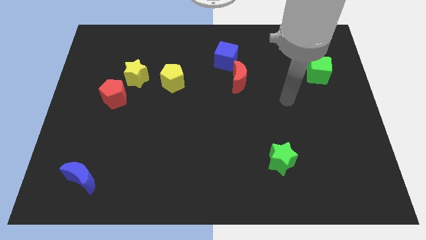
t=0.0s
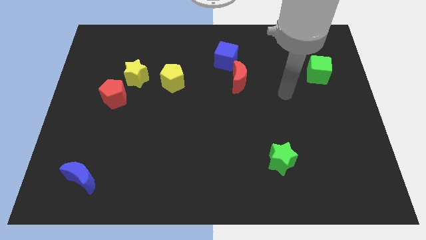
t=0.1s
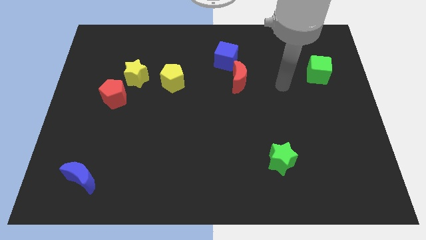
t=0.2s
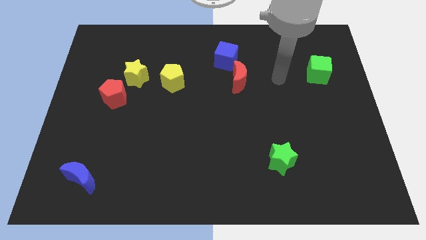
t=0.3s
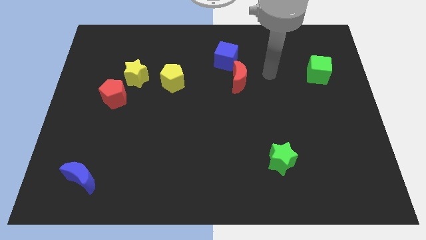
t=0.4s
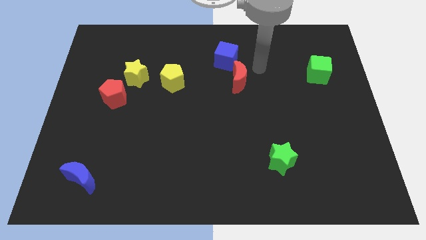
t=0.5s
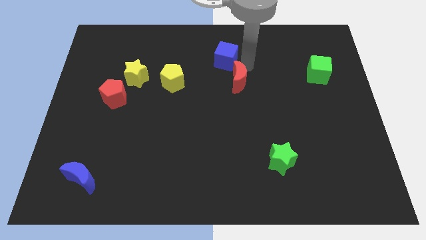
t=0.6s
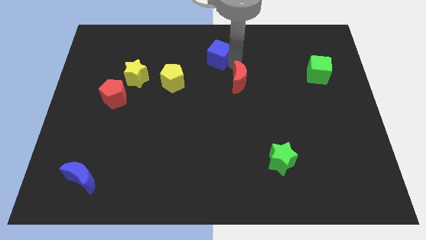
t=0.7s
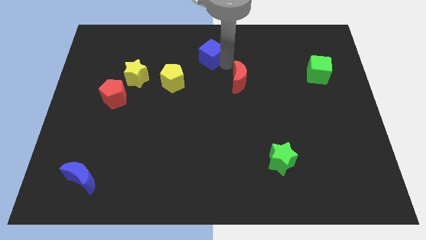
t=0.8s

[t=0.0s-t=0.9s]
separate the red moon from the blue cube

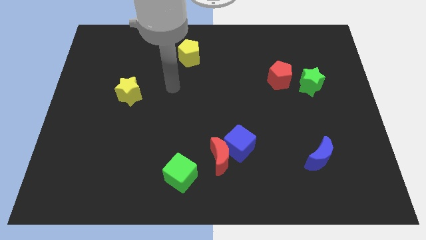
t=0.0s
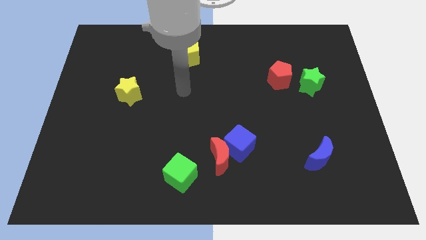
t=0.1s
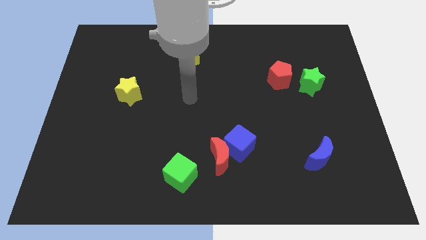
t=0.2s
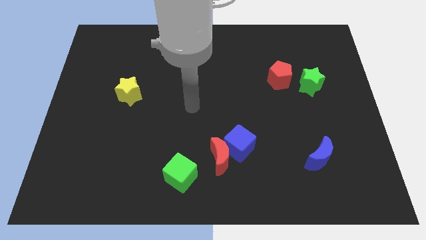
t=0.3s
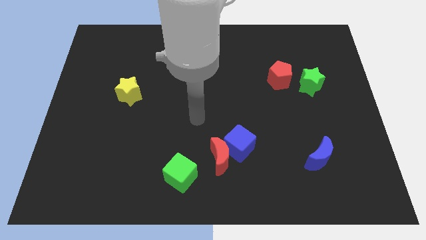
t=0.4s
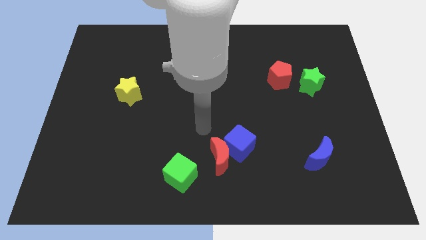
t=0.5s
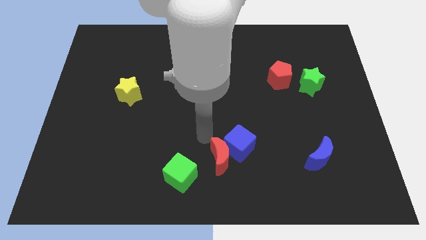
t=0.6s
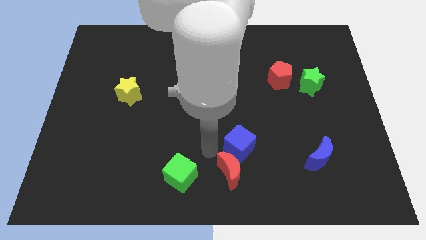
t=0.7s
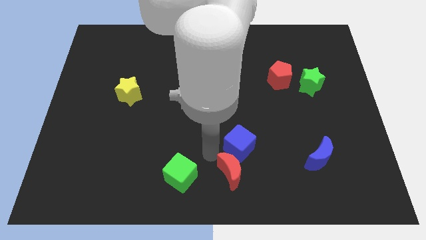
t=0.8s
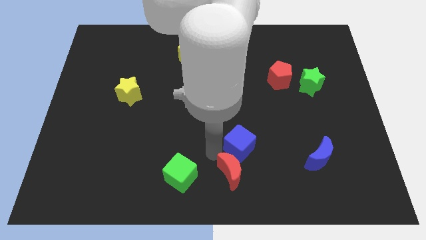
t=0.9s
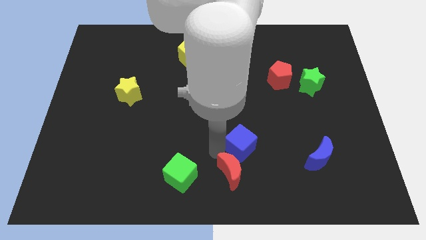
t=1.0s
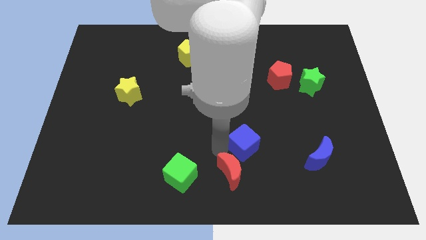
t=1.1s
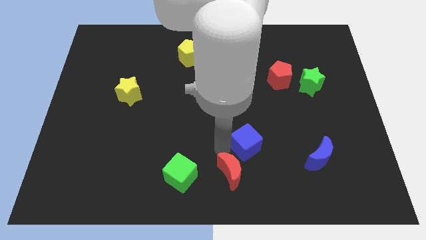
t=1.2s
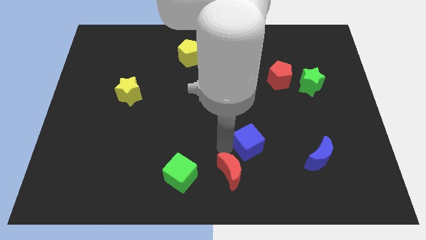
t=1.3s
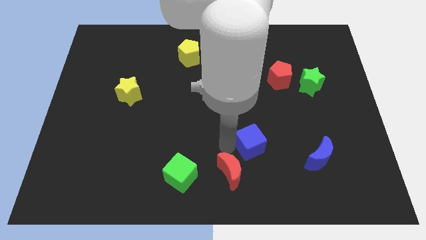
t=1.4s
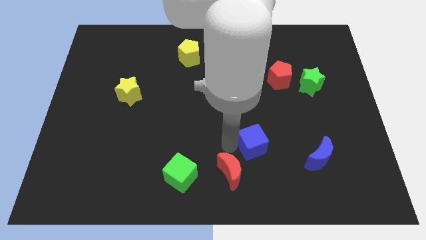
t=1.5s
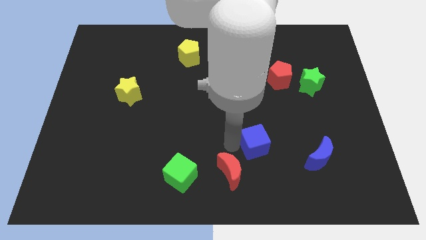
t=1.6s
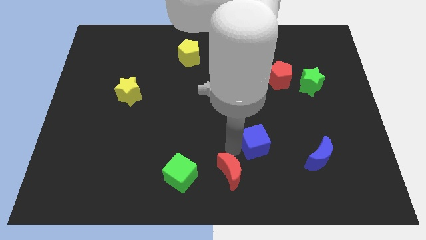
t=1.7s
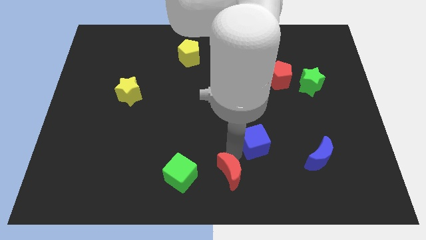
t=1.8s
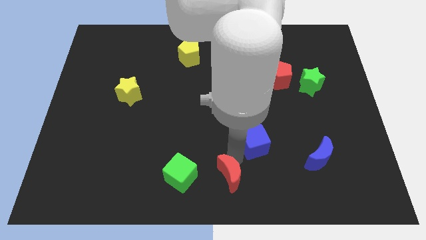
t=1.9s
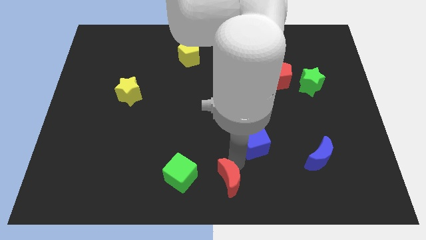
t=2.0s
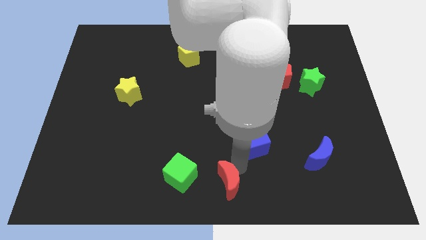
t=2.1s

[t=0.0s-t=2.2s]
pull the blue cube apart from the red moon

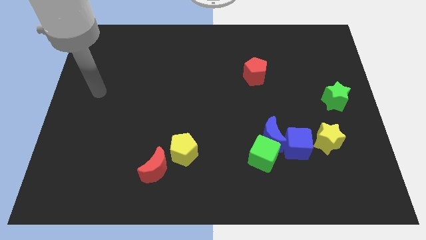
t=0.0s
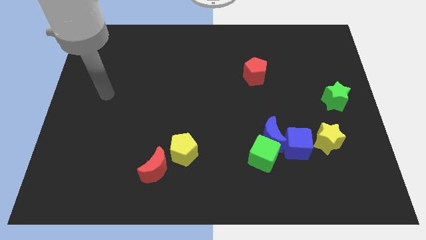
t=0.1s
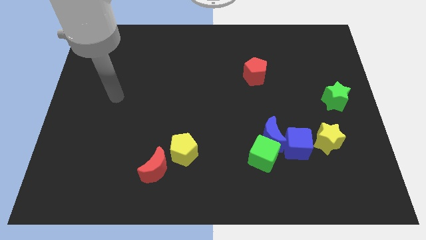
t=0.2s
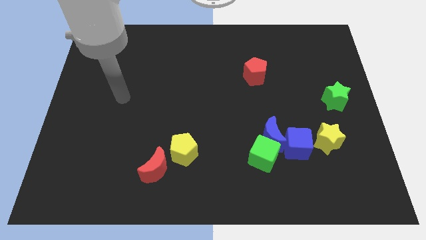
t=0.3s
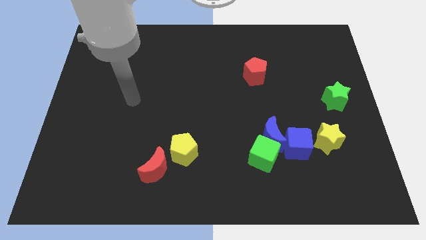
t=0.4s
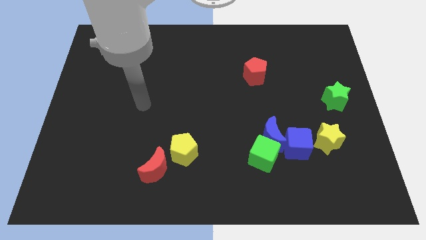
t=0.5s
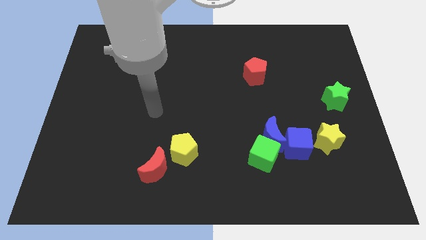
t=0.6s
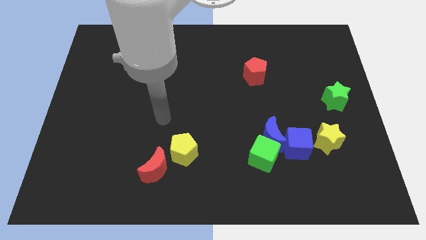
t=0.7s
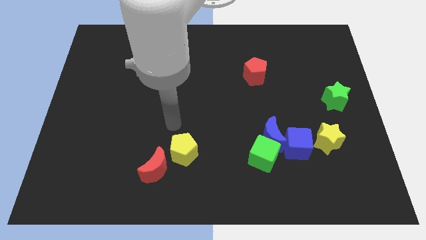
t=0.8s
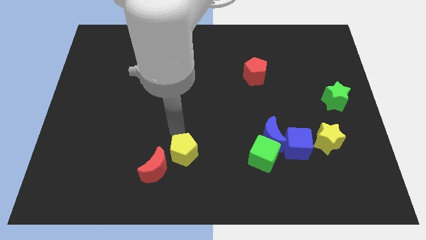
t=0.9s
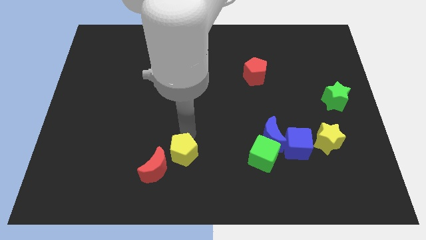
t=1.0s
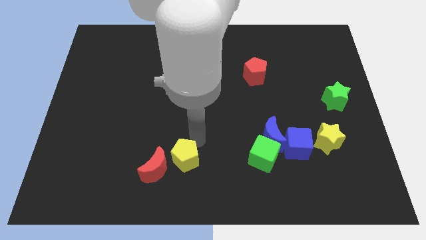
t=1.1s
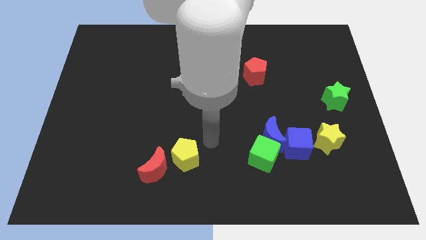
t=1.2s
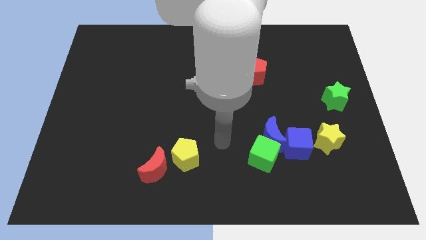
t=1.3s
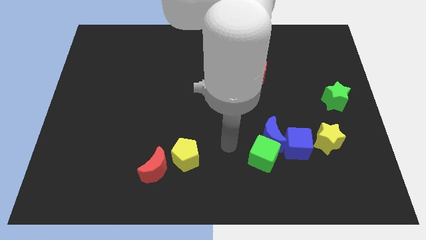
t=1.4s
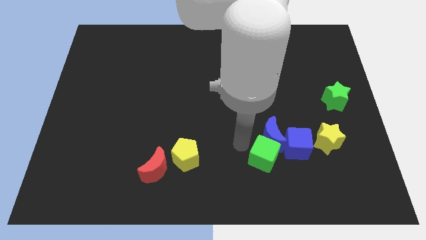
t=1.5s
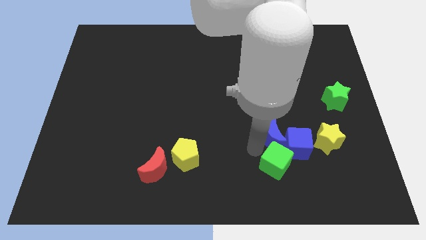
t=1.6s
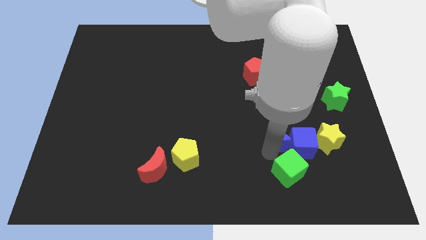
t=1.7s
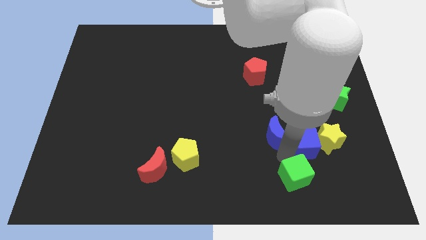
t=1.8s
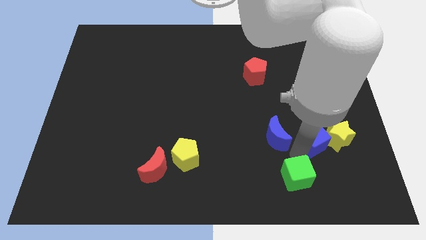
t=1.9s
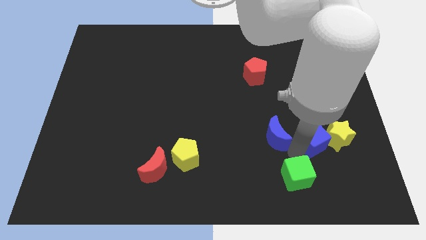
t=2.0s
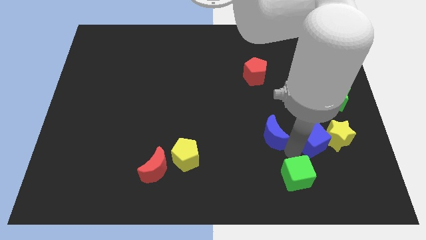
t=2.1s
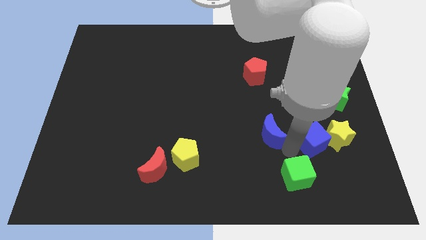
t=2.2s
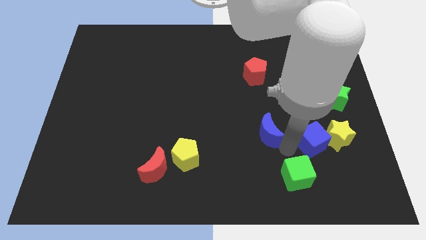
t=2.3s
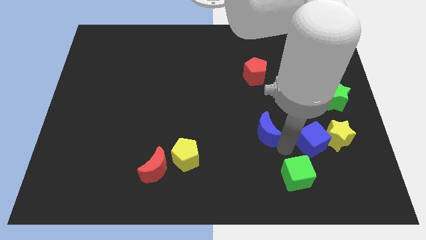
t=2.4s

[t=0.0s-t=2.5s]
move the blue moon away from the green cube and blue cube

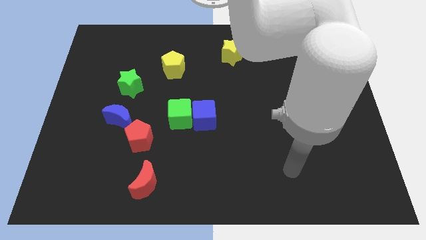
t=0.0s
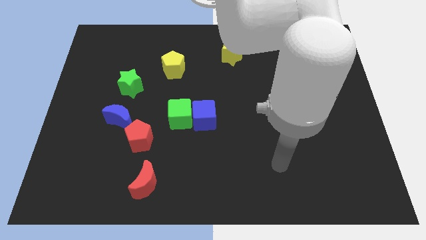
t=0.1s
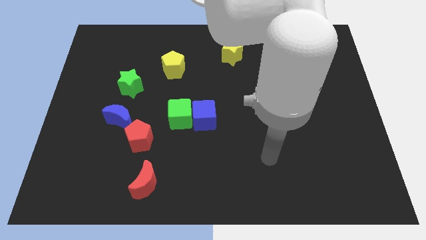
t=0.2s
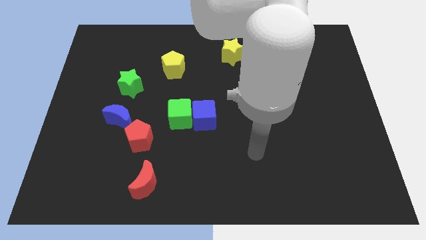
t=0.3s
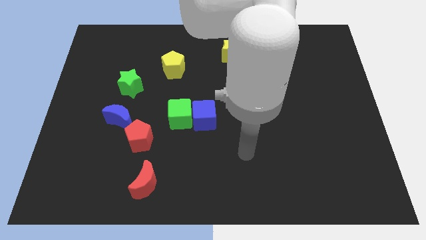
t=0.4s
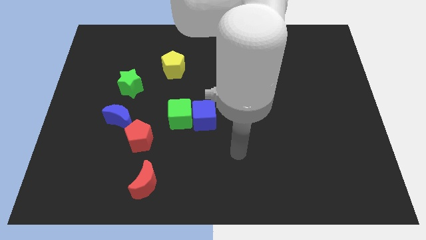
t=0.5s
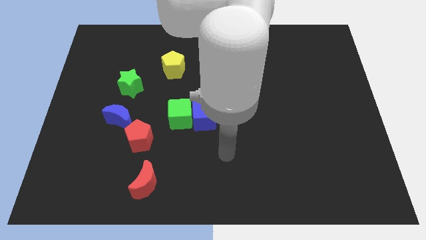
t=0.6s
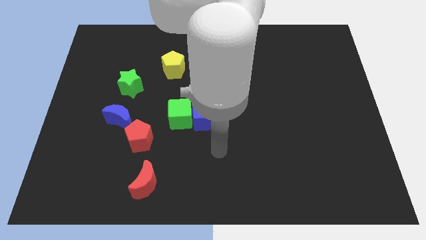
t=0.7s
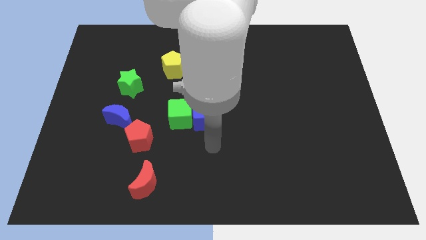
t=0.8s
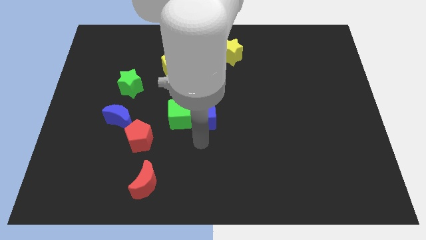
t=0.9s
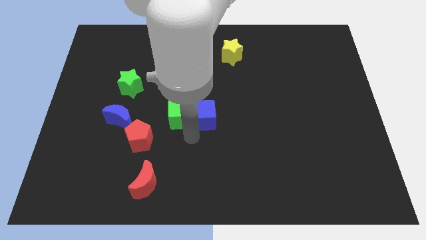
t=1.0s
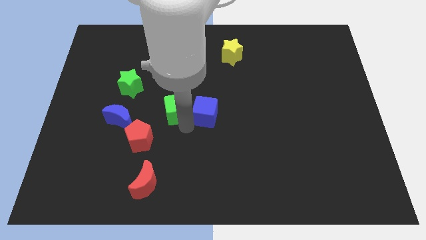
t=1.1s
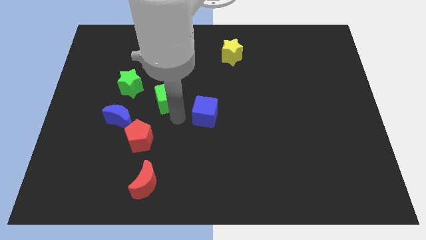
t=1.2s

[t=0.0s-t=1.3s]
separate the blue cube from the green cube

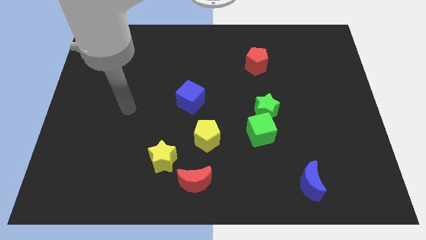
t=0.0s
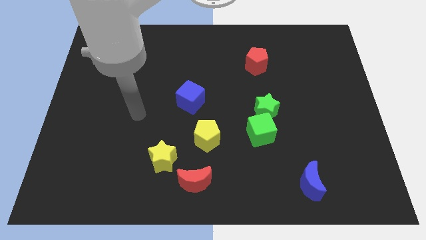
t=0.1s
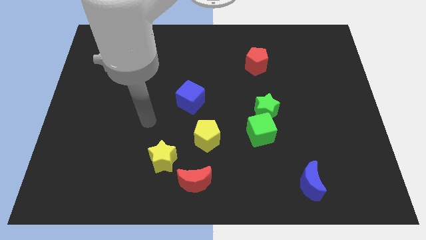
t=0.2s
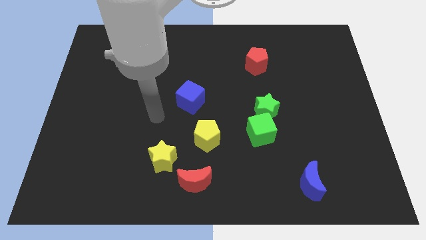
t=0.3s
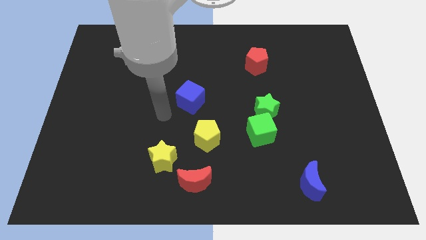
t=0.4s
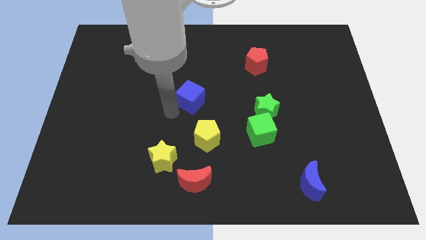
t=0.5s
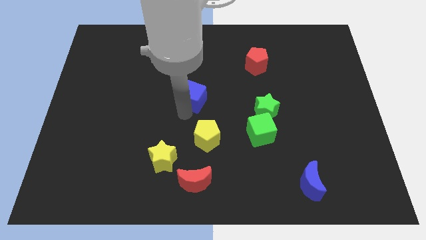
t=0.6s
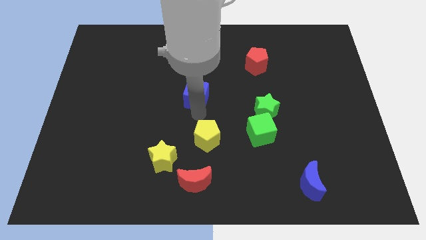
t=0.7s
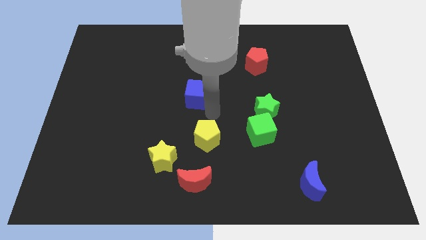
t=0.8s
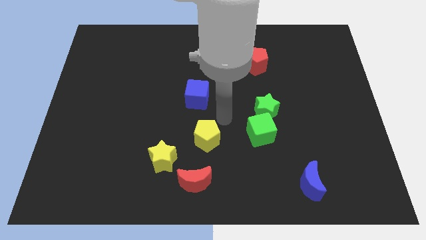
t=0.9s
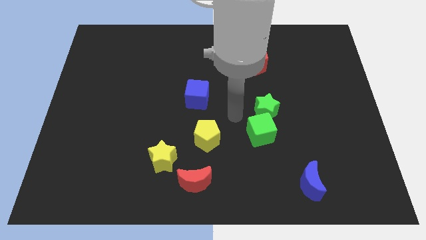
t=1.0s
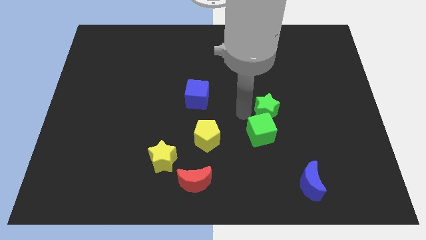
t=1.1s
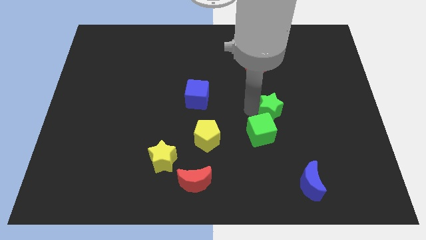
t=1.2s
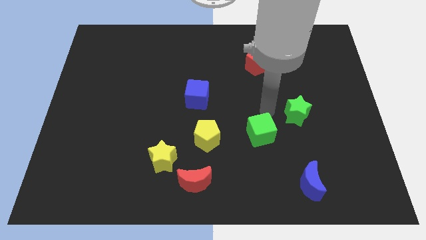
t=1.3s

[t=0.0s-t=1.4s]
pull the green cube apart from the green star

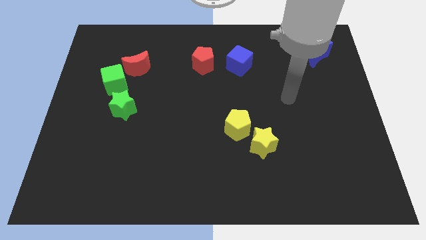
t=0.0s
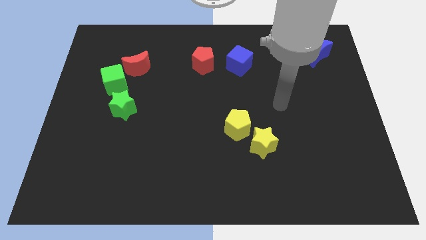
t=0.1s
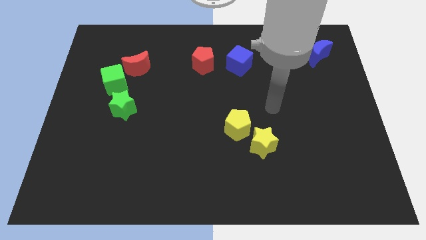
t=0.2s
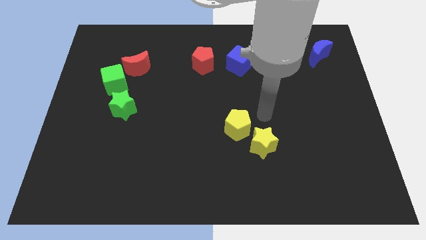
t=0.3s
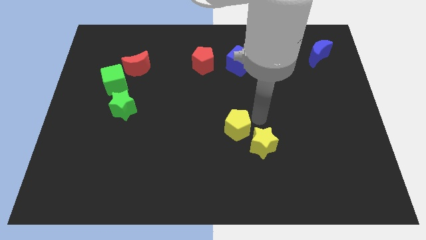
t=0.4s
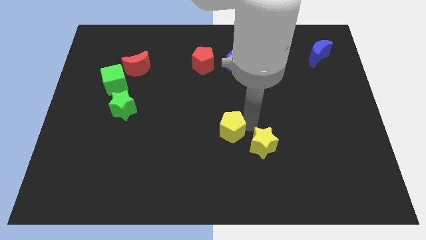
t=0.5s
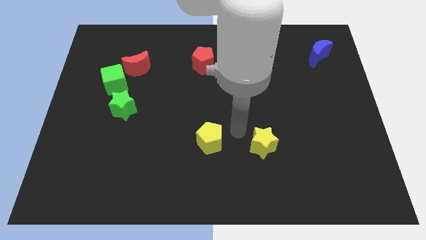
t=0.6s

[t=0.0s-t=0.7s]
separate the yellow star from the yellow pentagon

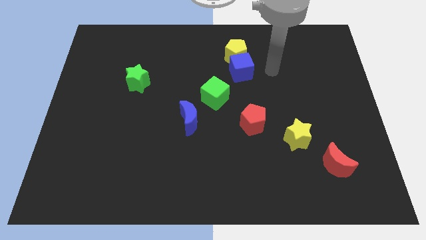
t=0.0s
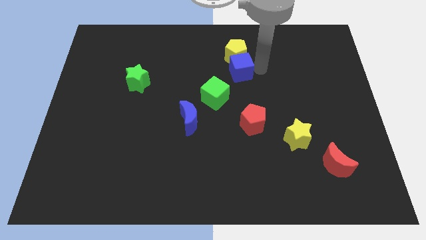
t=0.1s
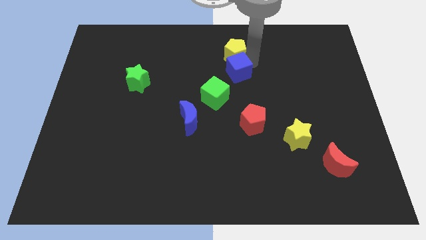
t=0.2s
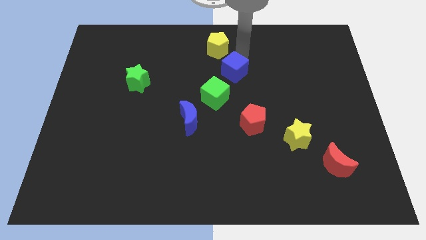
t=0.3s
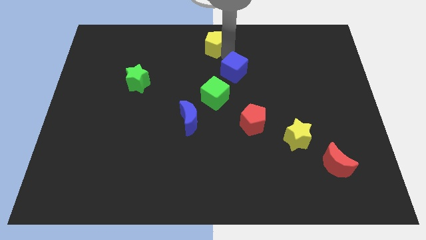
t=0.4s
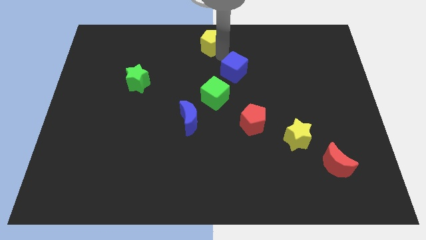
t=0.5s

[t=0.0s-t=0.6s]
move the blue cube away from the yellow pentagon
